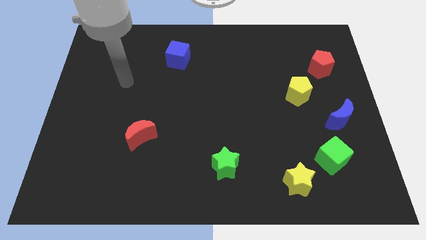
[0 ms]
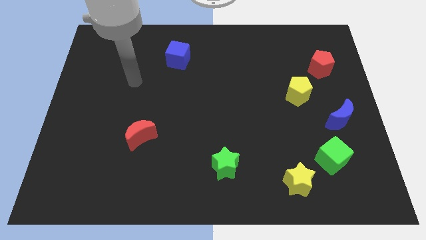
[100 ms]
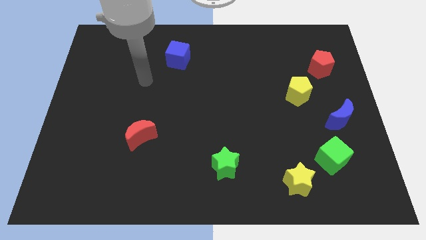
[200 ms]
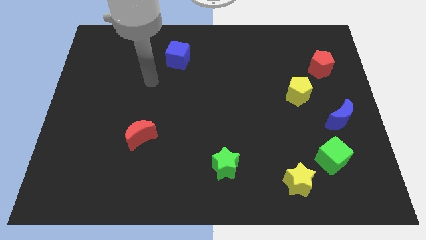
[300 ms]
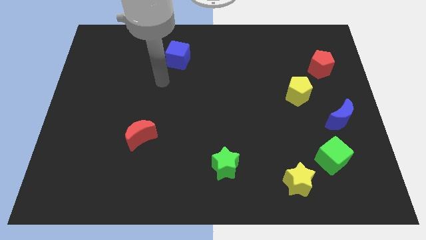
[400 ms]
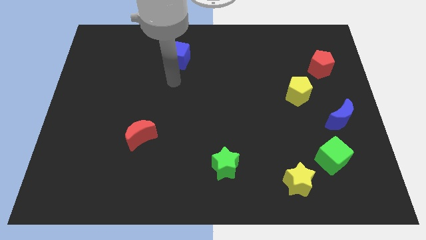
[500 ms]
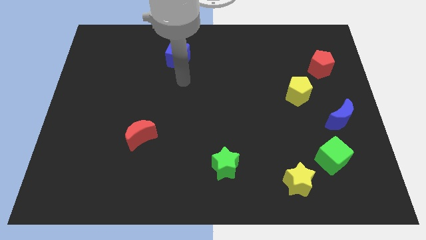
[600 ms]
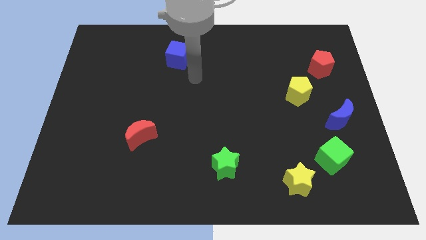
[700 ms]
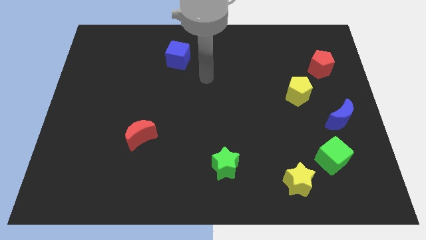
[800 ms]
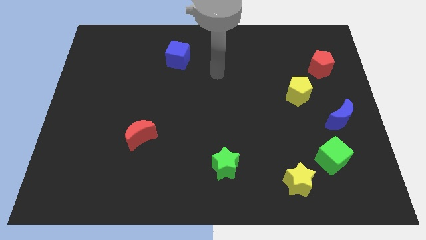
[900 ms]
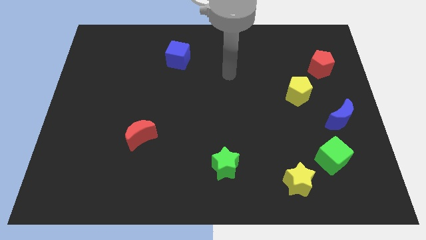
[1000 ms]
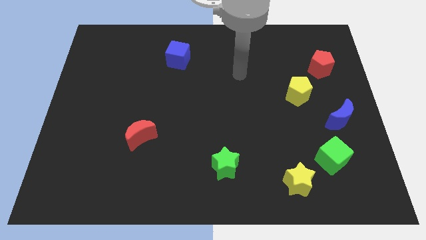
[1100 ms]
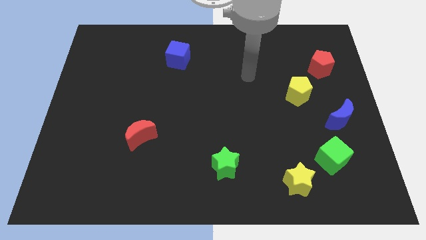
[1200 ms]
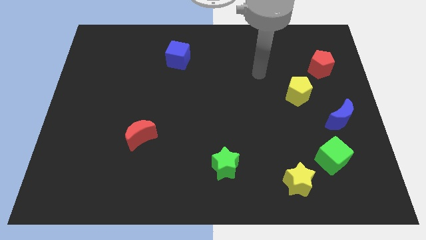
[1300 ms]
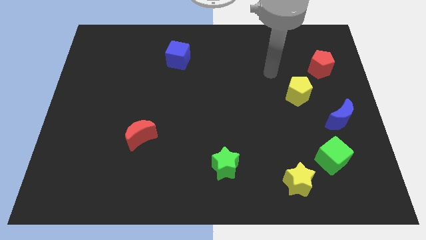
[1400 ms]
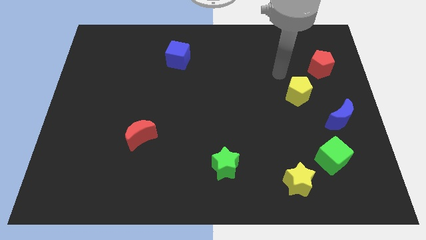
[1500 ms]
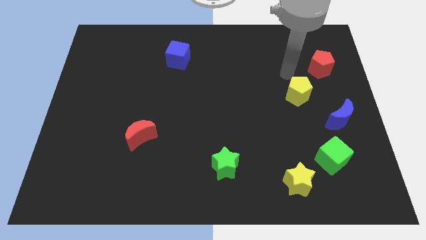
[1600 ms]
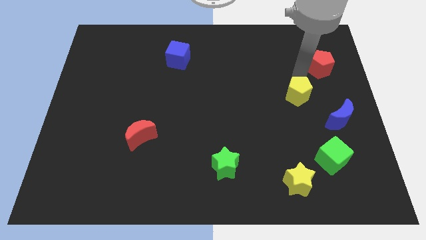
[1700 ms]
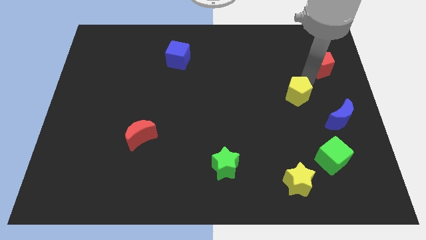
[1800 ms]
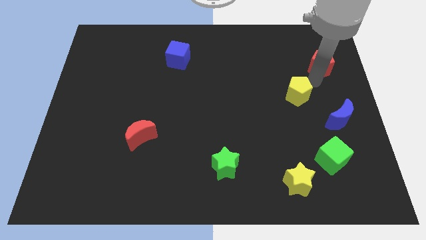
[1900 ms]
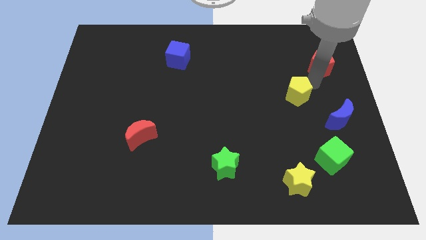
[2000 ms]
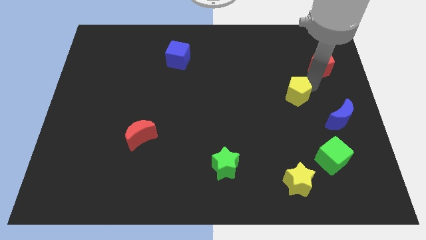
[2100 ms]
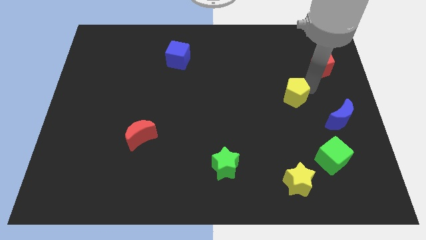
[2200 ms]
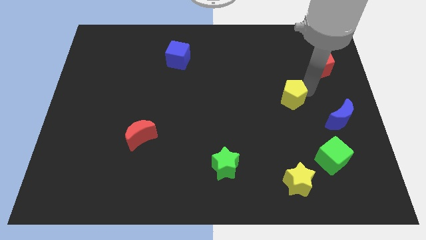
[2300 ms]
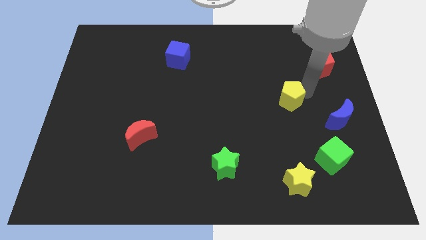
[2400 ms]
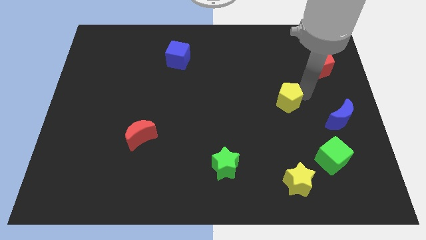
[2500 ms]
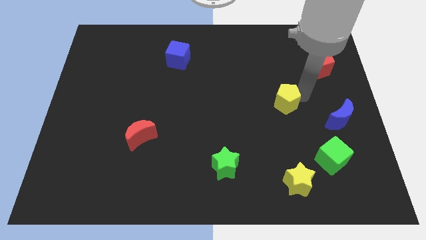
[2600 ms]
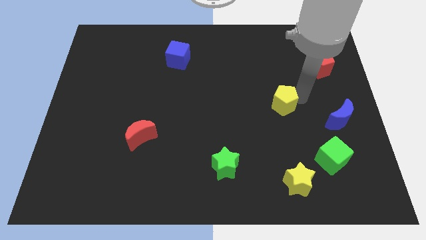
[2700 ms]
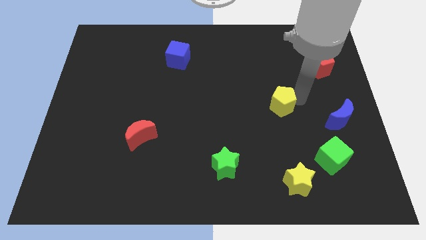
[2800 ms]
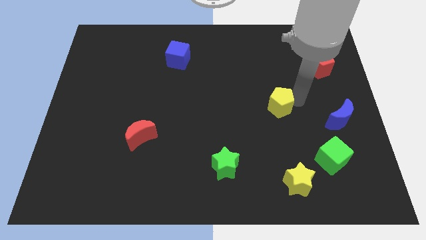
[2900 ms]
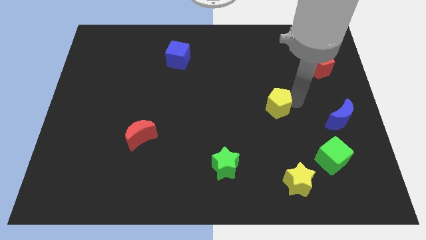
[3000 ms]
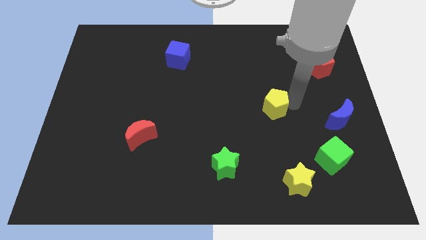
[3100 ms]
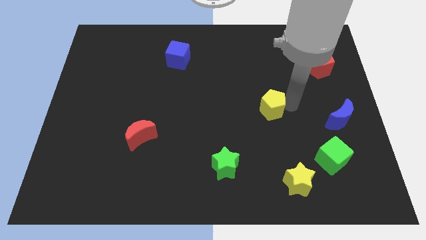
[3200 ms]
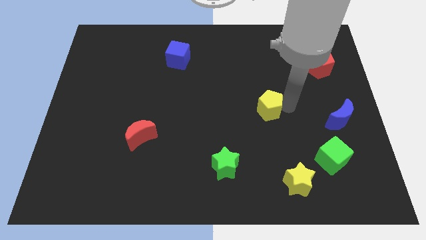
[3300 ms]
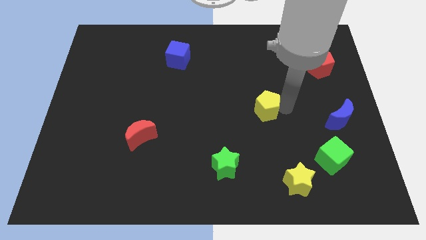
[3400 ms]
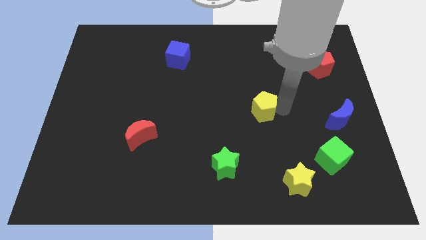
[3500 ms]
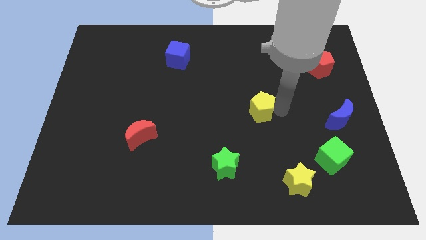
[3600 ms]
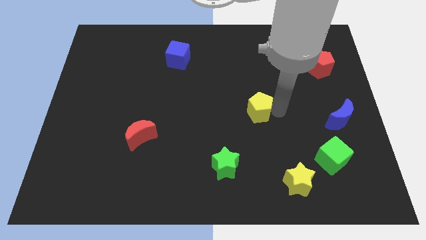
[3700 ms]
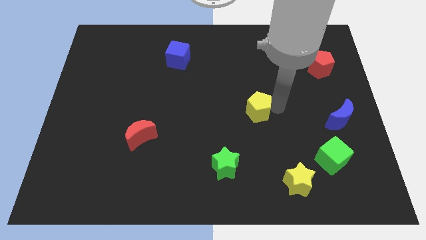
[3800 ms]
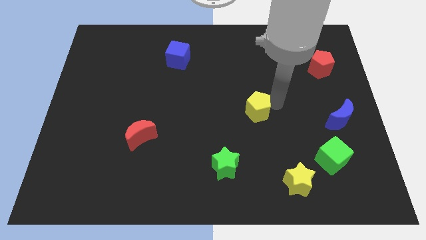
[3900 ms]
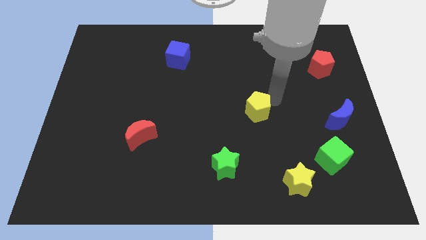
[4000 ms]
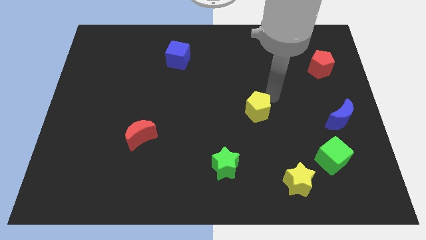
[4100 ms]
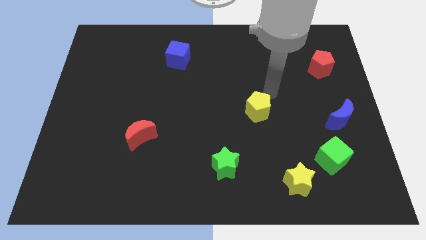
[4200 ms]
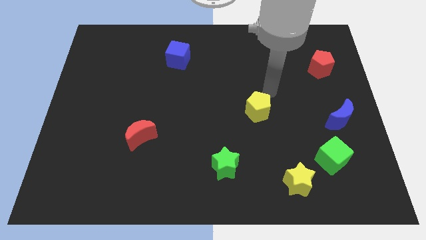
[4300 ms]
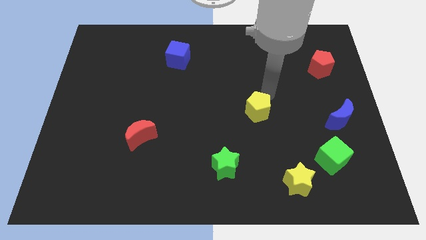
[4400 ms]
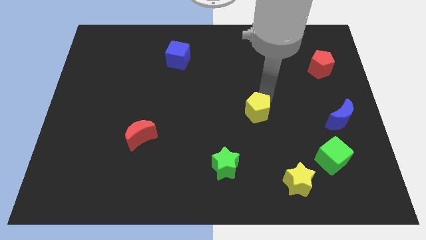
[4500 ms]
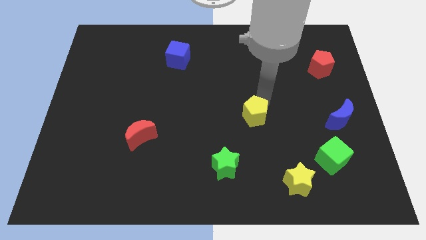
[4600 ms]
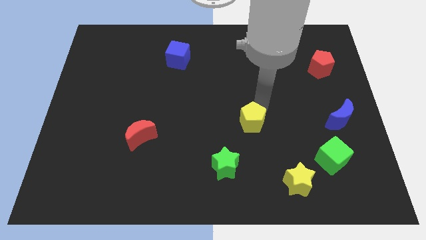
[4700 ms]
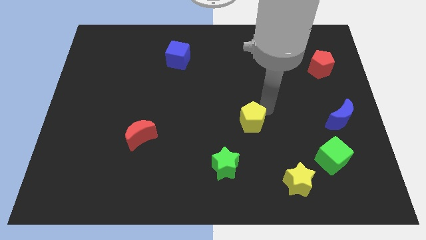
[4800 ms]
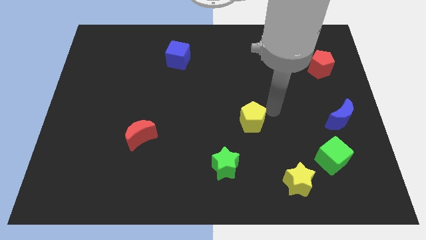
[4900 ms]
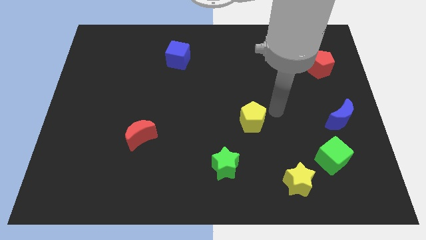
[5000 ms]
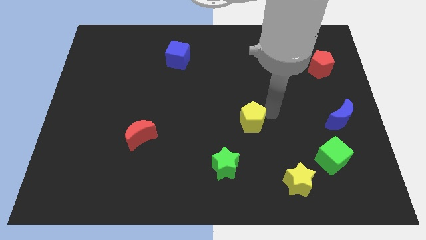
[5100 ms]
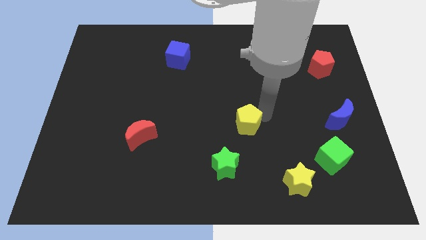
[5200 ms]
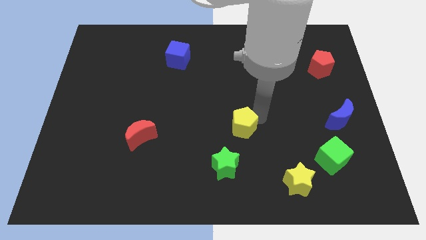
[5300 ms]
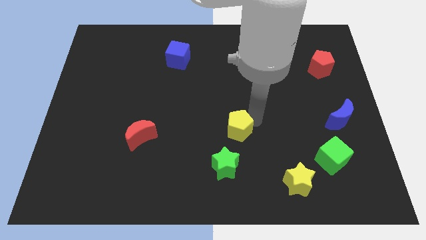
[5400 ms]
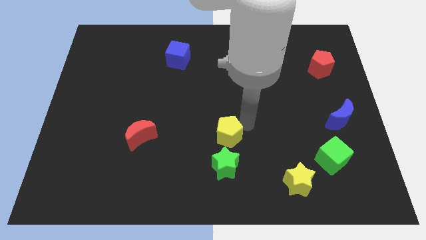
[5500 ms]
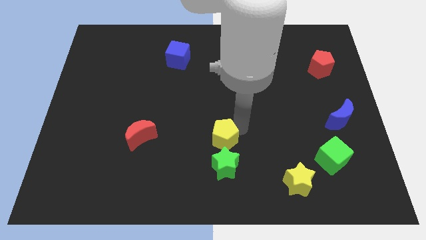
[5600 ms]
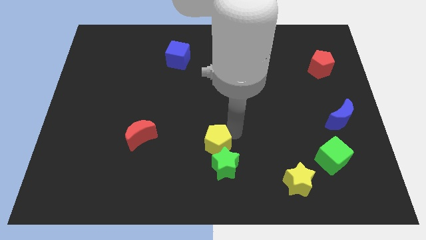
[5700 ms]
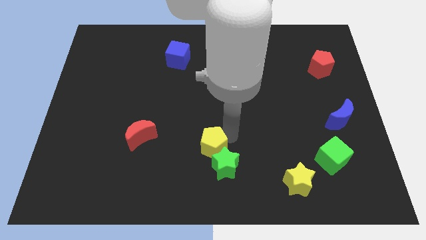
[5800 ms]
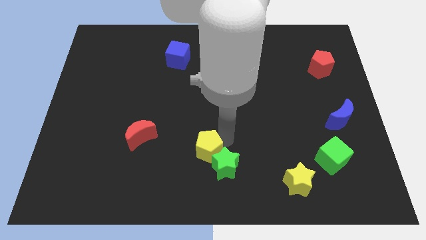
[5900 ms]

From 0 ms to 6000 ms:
push the yellow pentagon to the left of the green star

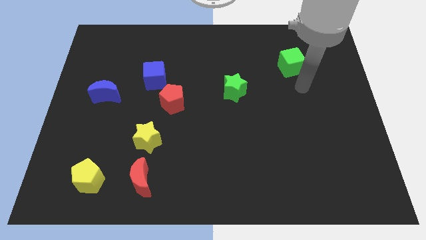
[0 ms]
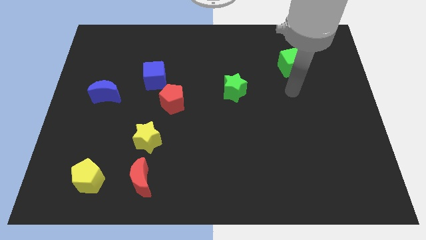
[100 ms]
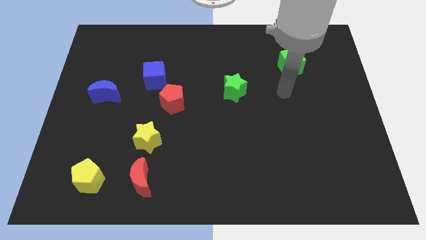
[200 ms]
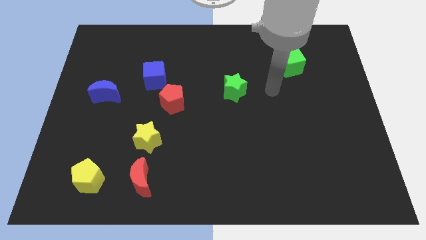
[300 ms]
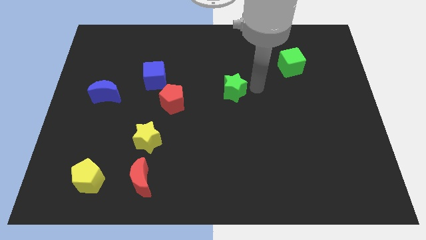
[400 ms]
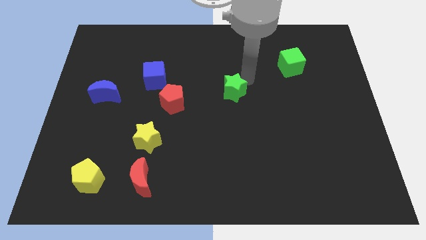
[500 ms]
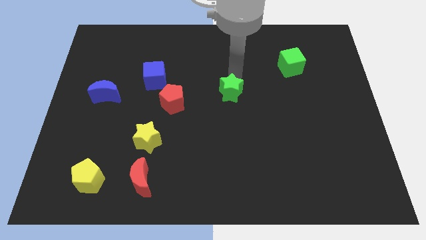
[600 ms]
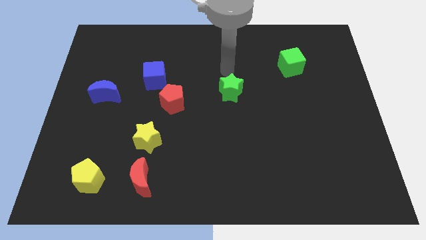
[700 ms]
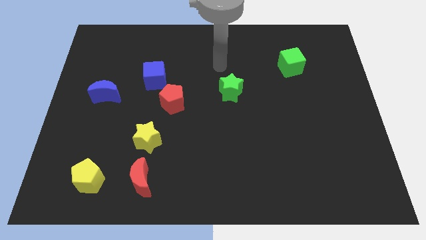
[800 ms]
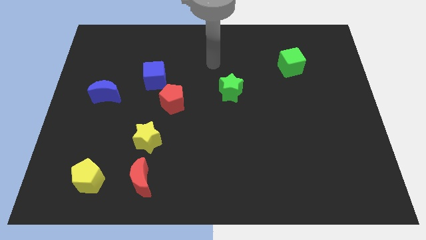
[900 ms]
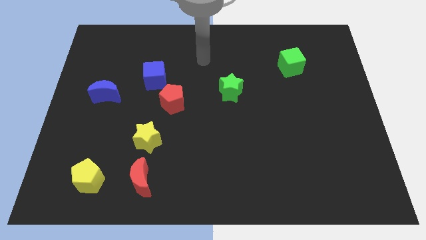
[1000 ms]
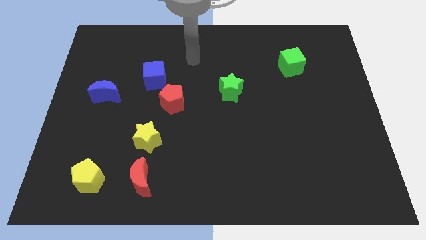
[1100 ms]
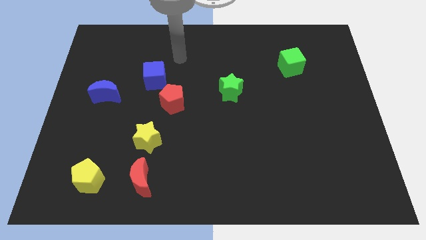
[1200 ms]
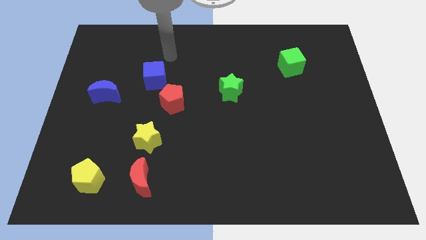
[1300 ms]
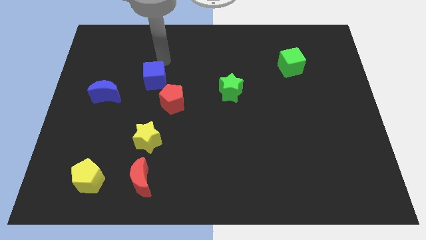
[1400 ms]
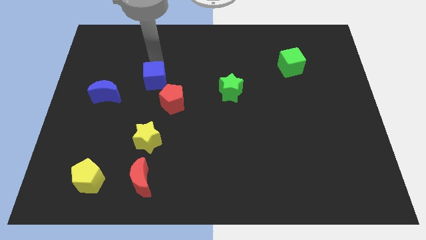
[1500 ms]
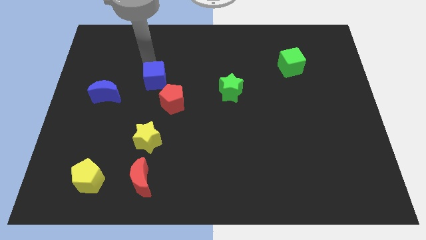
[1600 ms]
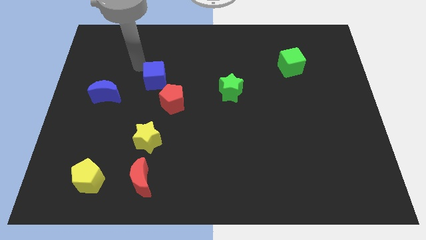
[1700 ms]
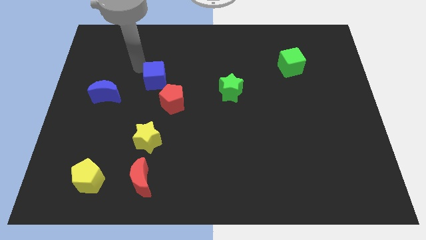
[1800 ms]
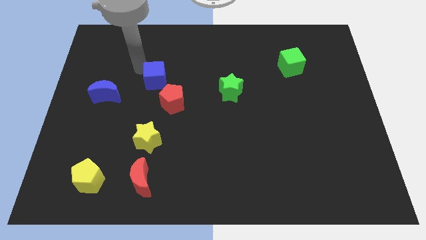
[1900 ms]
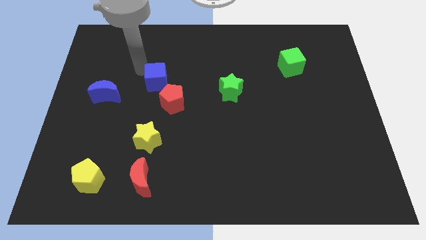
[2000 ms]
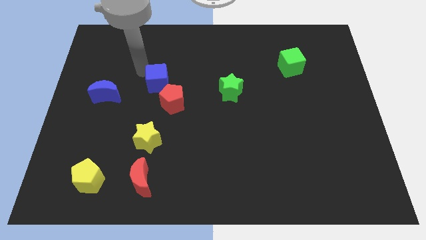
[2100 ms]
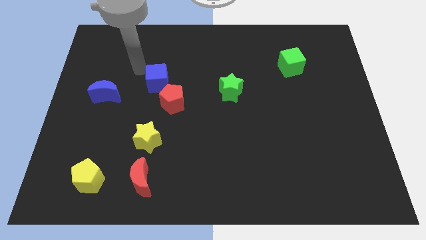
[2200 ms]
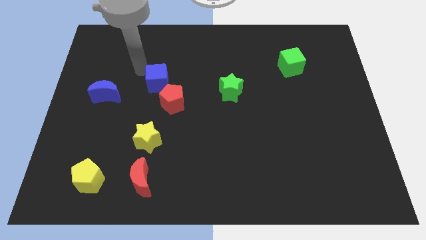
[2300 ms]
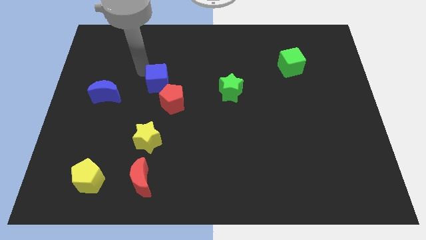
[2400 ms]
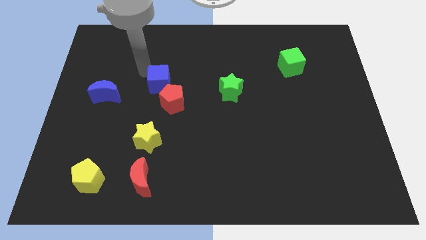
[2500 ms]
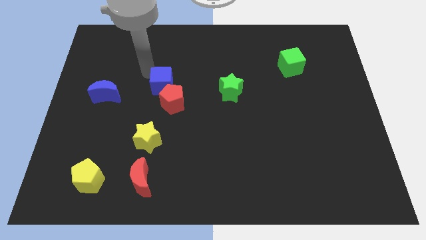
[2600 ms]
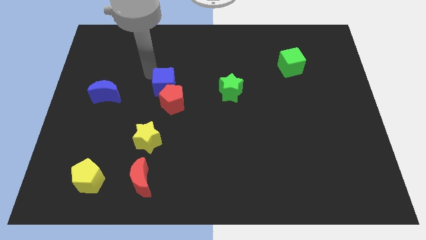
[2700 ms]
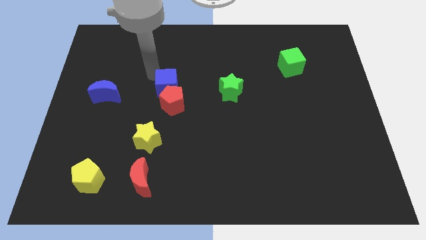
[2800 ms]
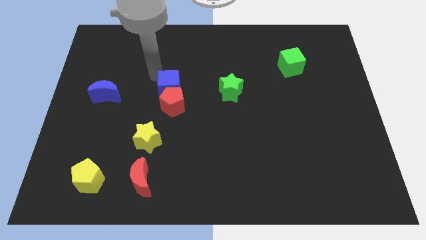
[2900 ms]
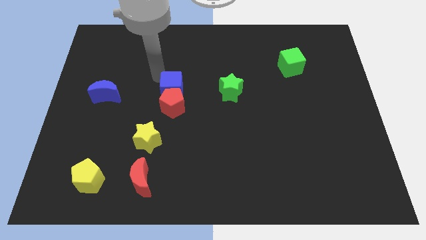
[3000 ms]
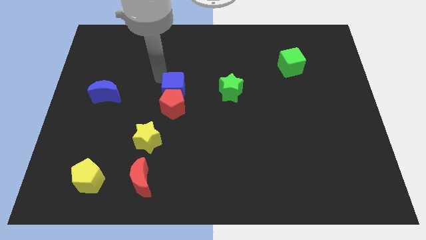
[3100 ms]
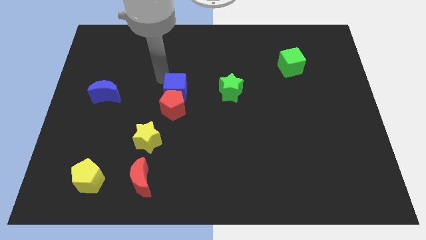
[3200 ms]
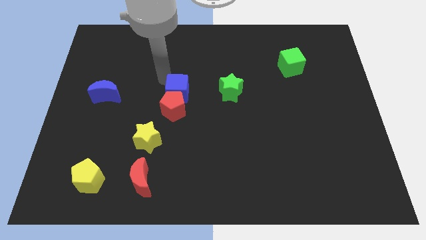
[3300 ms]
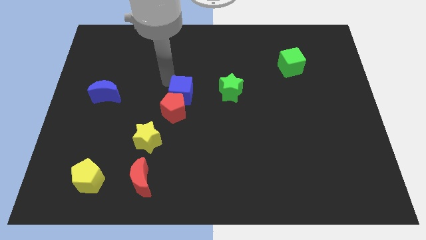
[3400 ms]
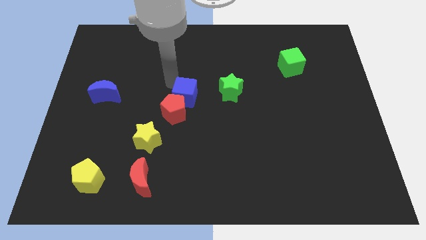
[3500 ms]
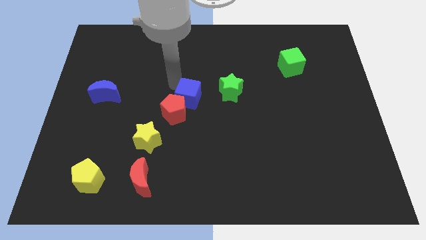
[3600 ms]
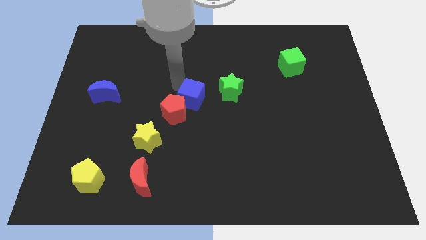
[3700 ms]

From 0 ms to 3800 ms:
push the blue cube to the right of the red pentagon
